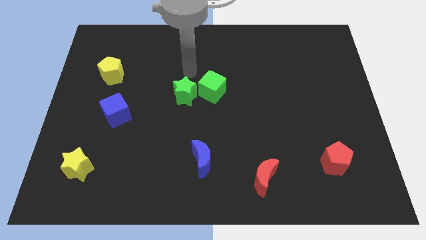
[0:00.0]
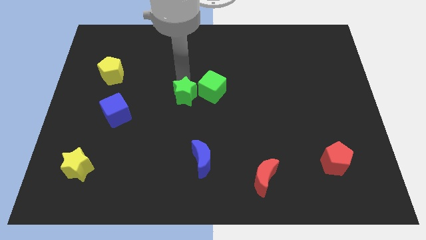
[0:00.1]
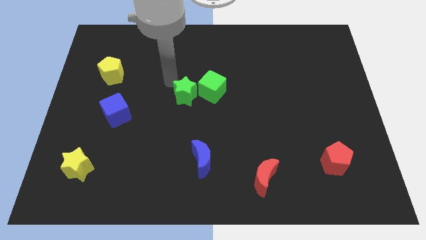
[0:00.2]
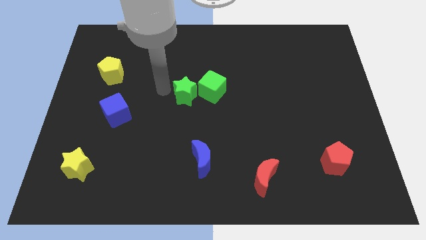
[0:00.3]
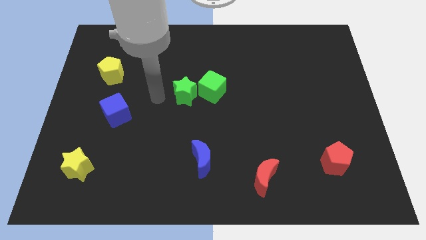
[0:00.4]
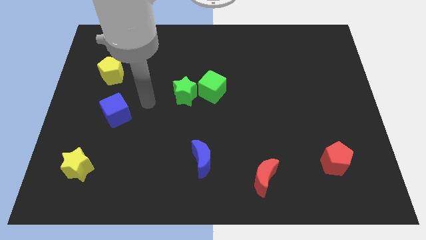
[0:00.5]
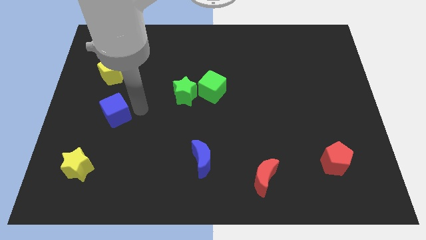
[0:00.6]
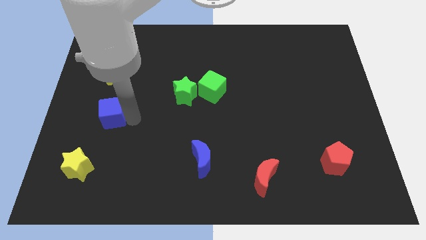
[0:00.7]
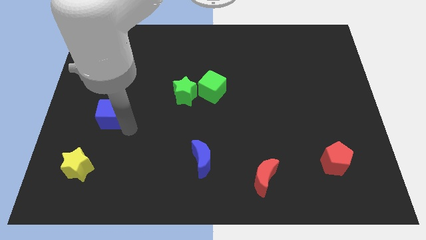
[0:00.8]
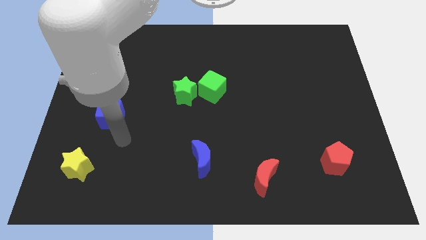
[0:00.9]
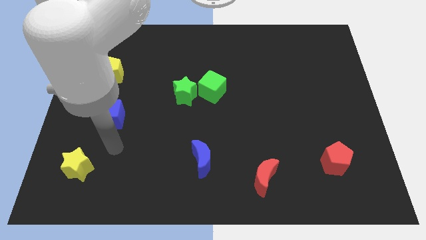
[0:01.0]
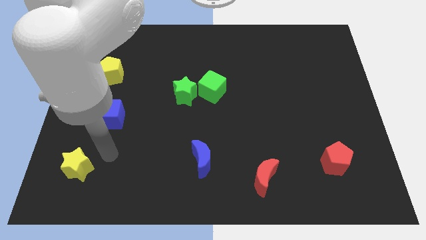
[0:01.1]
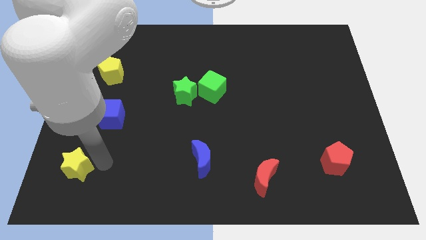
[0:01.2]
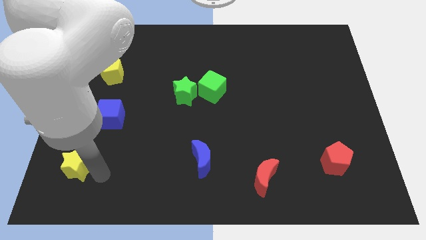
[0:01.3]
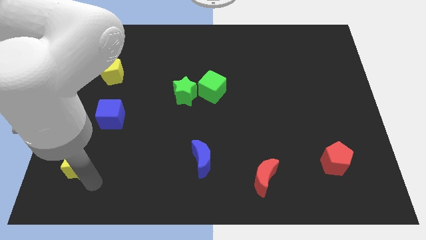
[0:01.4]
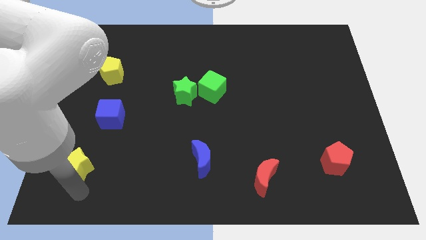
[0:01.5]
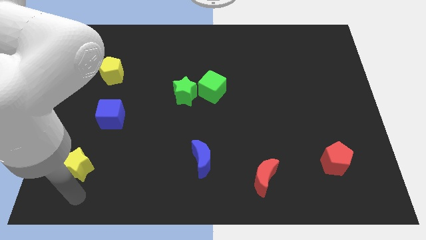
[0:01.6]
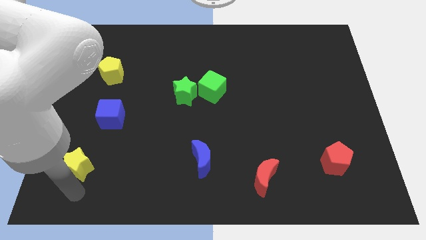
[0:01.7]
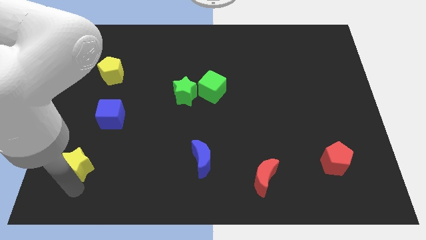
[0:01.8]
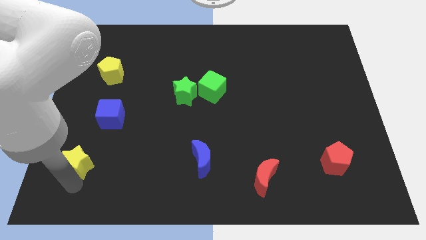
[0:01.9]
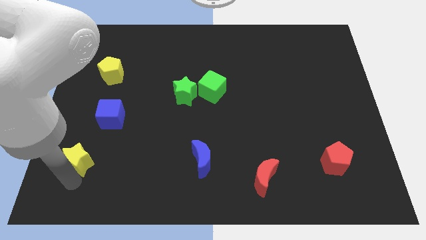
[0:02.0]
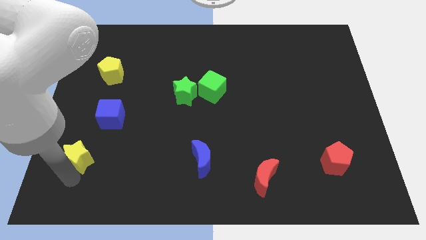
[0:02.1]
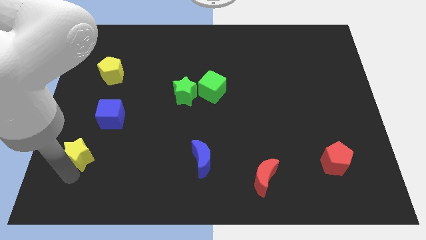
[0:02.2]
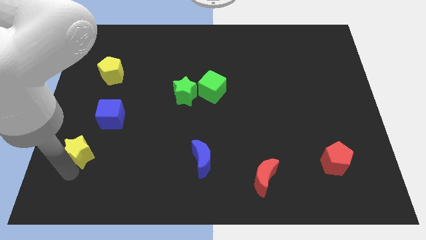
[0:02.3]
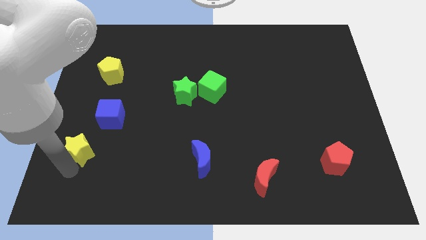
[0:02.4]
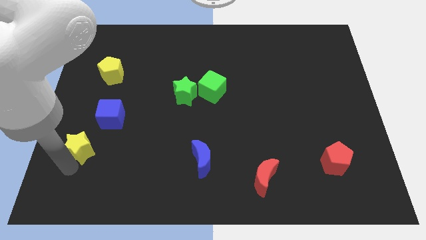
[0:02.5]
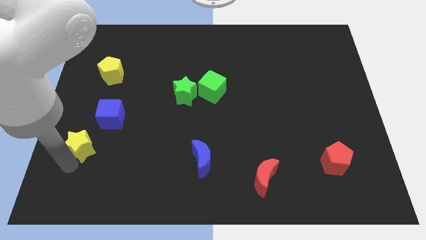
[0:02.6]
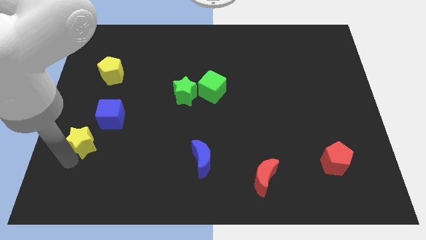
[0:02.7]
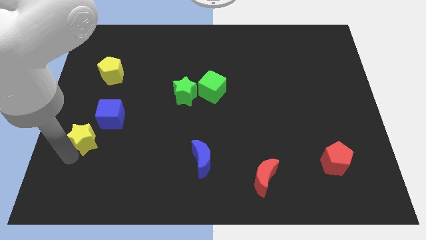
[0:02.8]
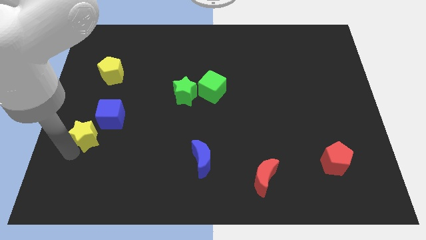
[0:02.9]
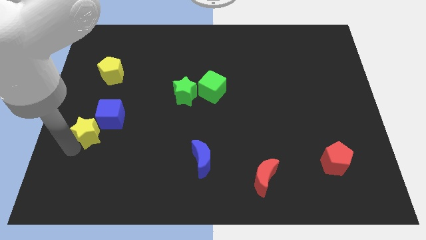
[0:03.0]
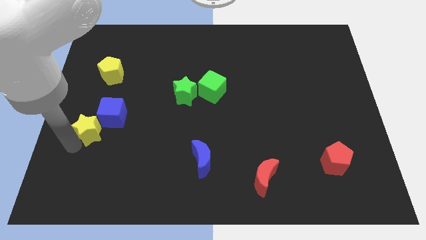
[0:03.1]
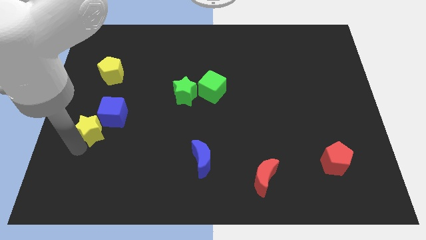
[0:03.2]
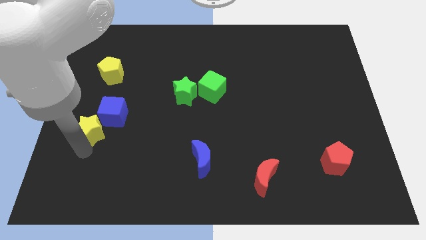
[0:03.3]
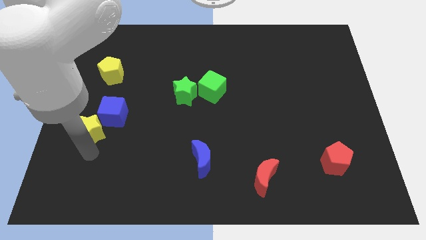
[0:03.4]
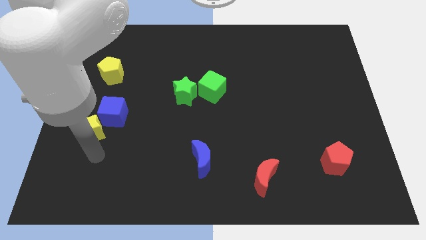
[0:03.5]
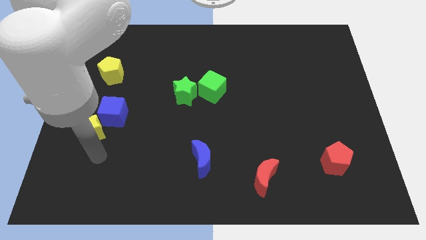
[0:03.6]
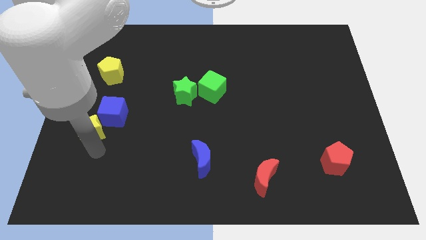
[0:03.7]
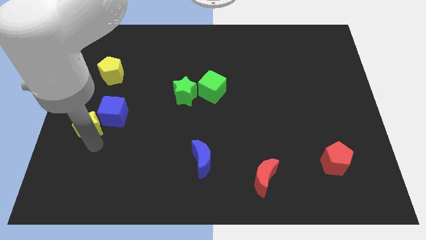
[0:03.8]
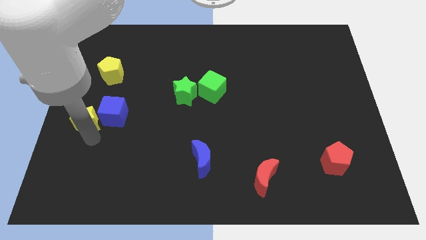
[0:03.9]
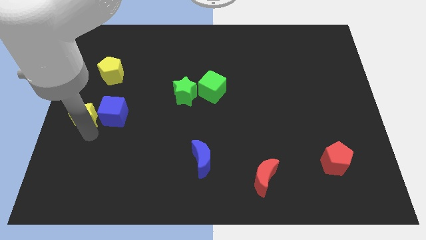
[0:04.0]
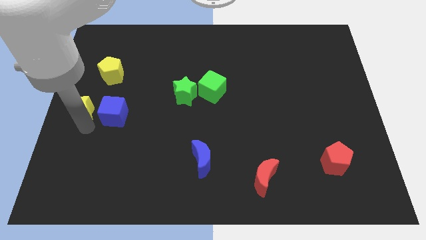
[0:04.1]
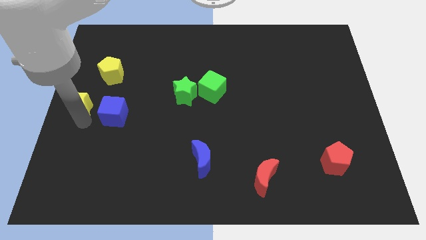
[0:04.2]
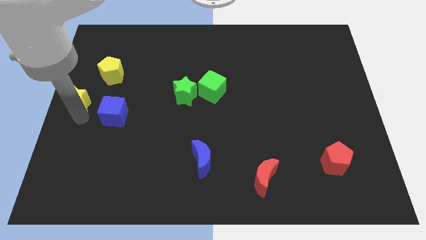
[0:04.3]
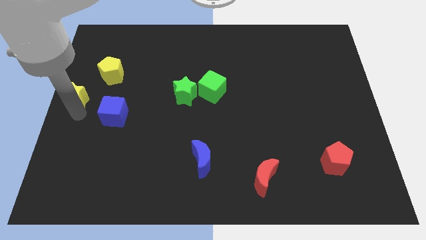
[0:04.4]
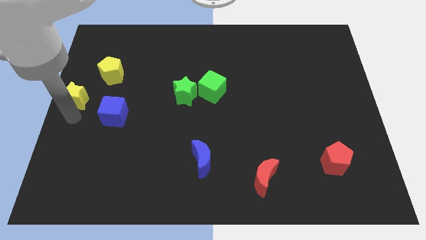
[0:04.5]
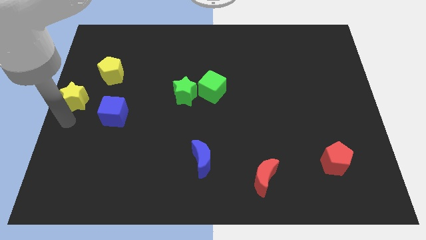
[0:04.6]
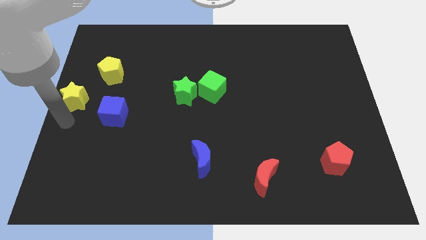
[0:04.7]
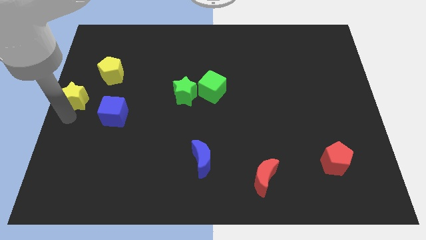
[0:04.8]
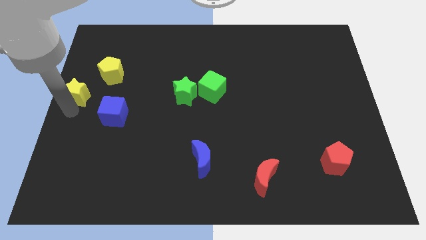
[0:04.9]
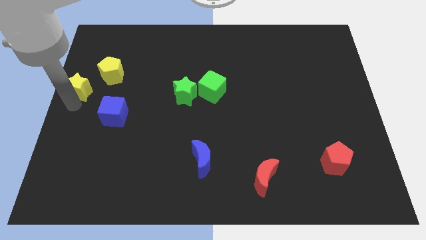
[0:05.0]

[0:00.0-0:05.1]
move the yellow star upwards

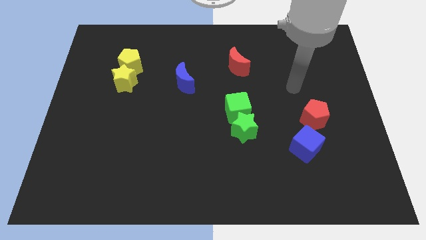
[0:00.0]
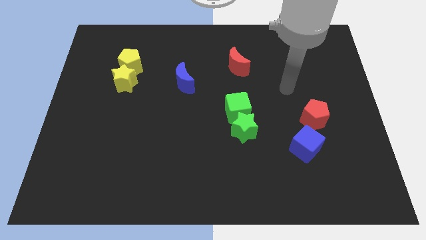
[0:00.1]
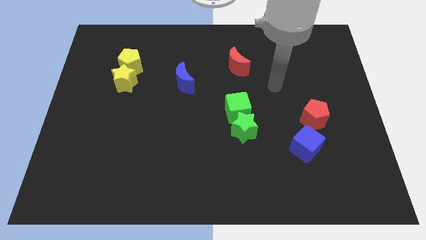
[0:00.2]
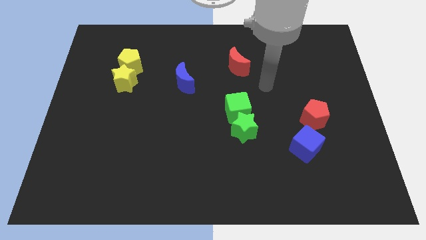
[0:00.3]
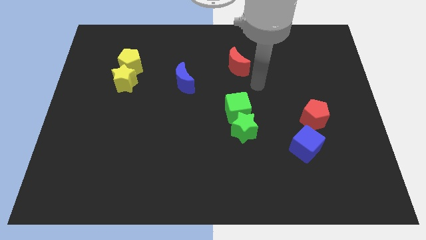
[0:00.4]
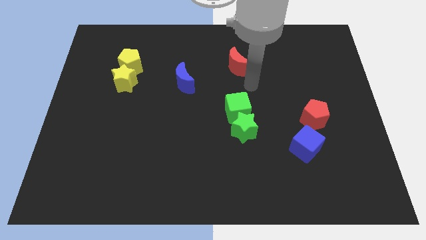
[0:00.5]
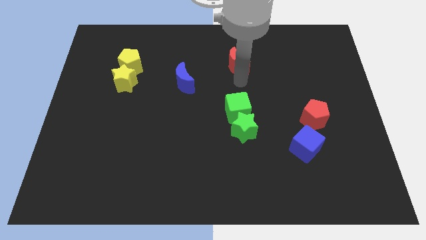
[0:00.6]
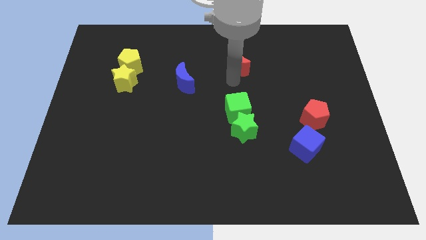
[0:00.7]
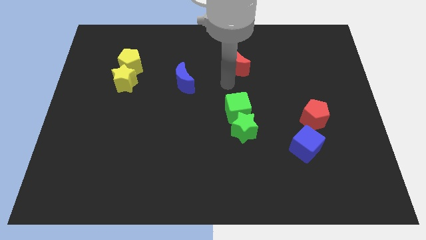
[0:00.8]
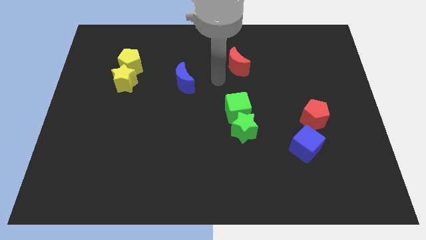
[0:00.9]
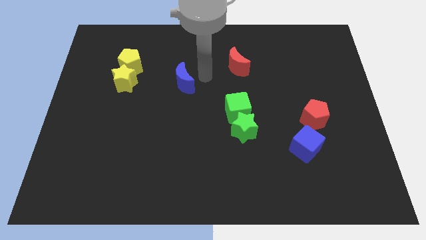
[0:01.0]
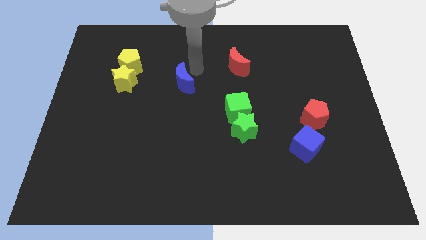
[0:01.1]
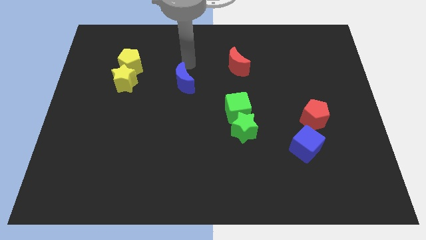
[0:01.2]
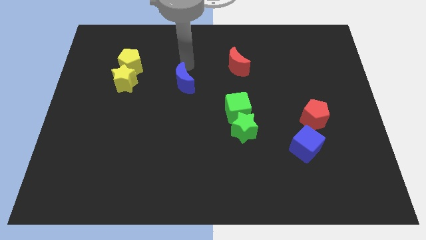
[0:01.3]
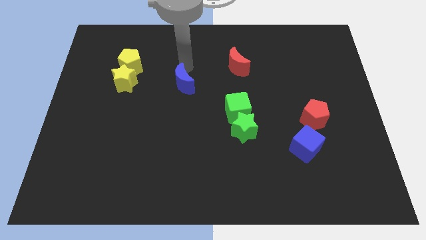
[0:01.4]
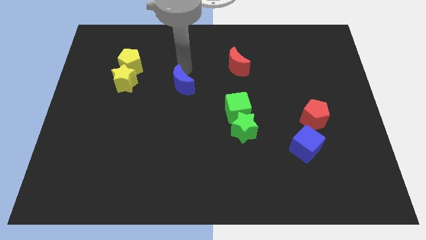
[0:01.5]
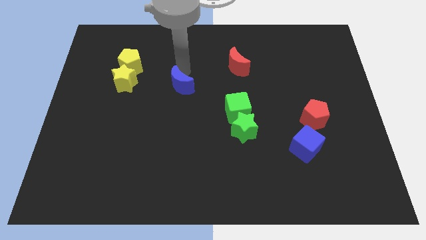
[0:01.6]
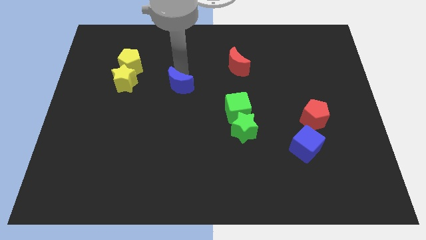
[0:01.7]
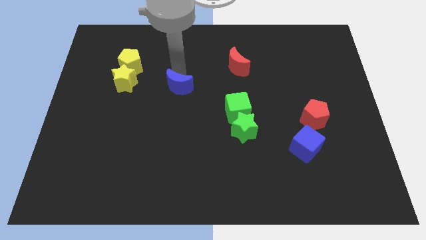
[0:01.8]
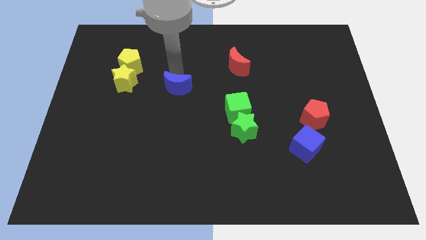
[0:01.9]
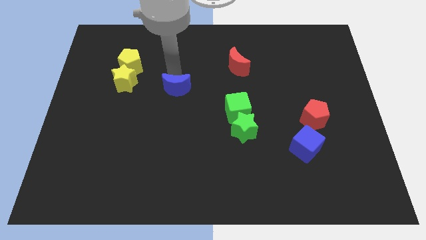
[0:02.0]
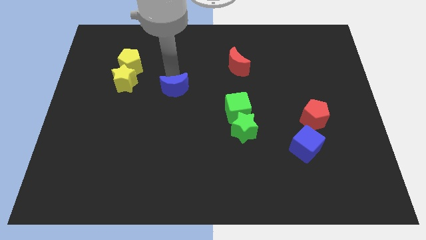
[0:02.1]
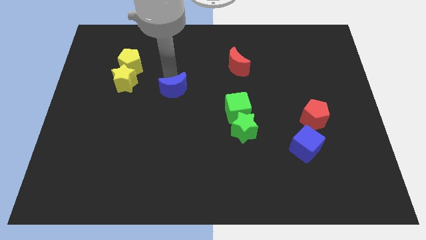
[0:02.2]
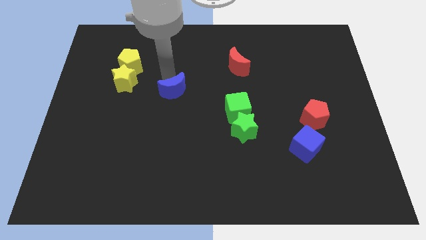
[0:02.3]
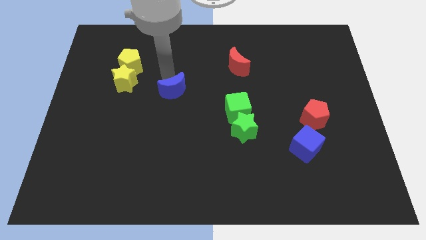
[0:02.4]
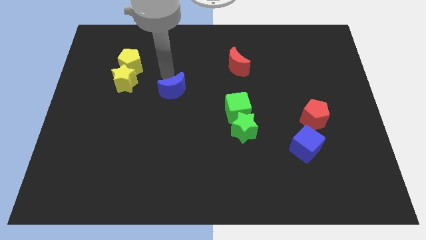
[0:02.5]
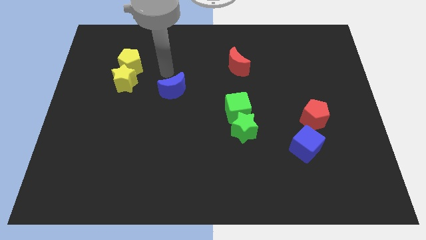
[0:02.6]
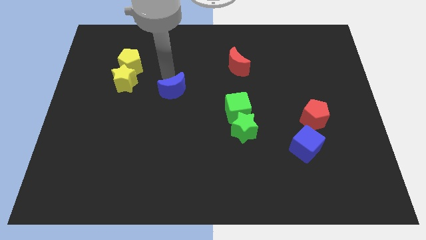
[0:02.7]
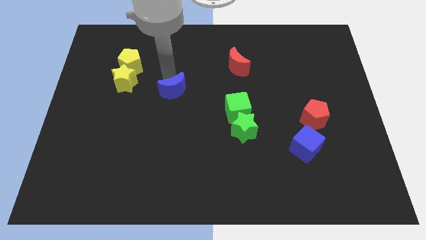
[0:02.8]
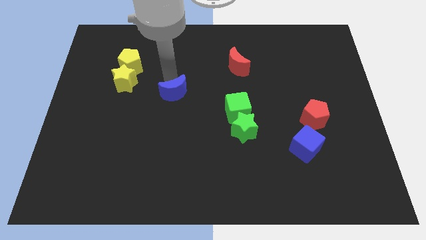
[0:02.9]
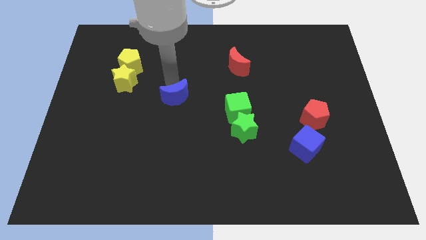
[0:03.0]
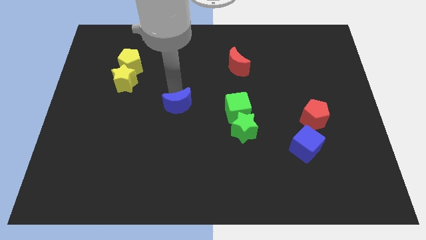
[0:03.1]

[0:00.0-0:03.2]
push the blue moon a little bit downwards
